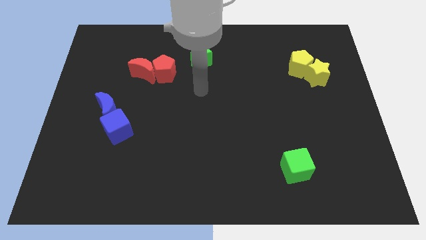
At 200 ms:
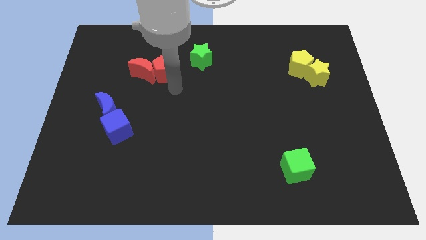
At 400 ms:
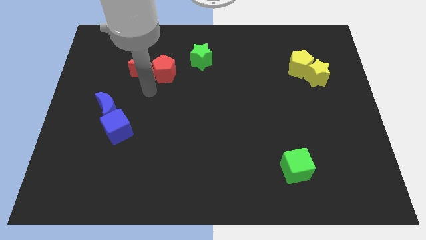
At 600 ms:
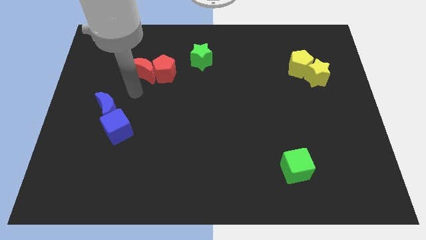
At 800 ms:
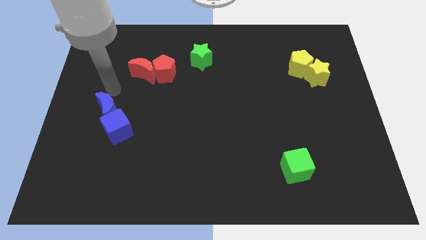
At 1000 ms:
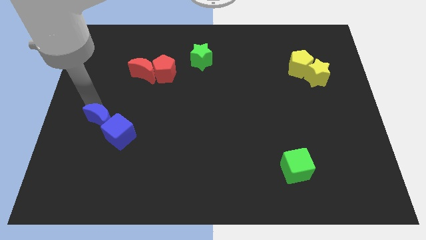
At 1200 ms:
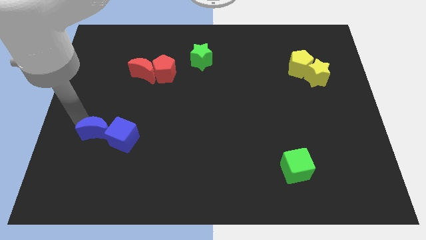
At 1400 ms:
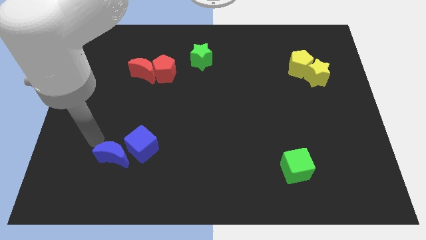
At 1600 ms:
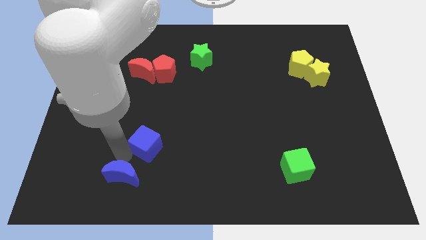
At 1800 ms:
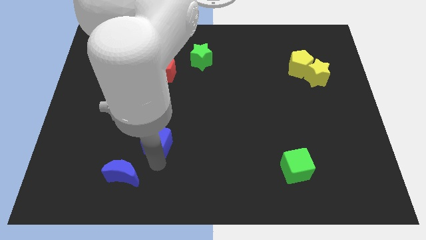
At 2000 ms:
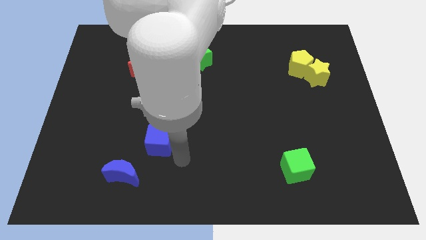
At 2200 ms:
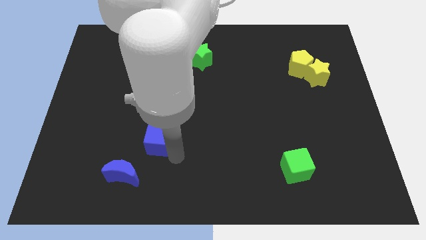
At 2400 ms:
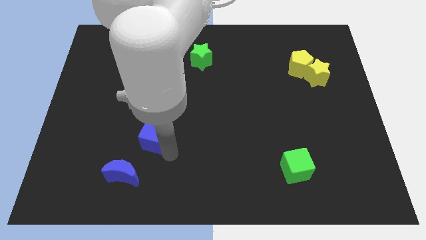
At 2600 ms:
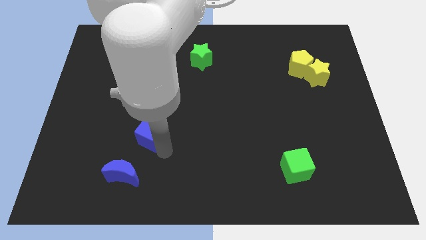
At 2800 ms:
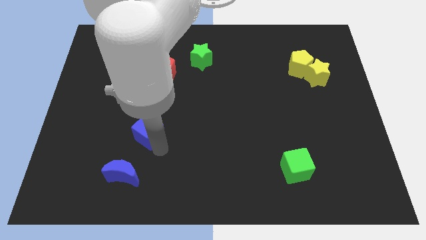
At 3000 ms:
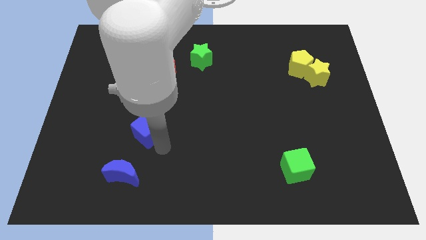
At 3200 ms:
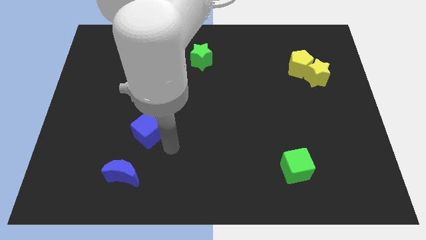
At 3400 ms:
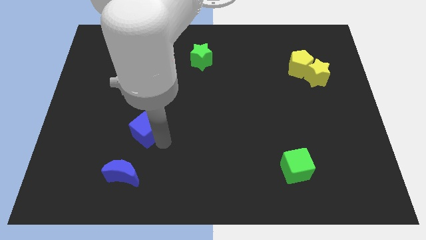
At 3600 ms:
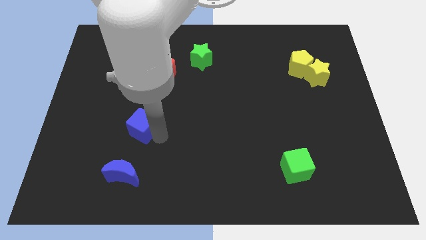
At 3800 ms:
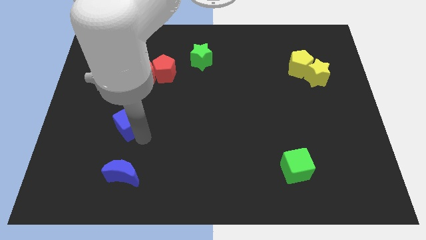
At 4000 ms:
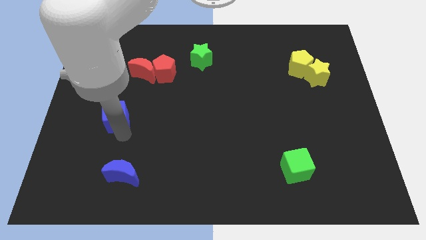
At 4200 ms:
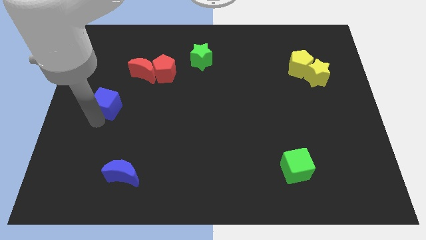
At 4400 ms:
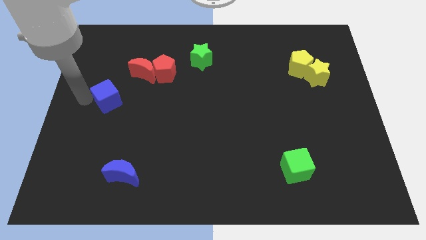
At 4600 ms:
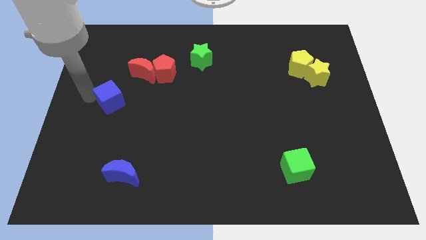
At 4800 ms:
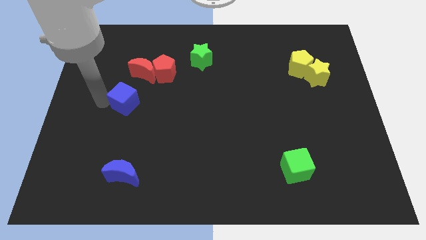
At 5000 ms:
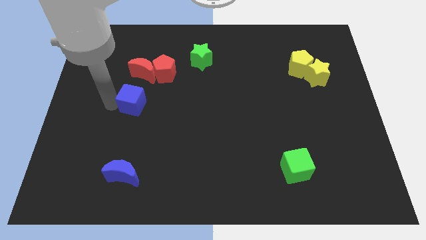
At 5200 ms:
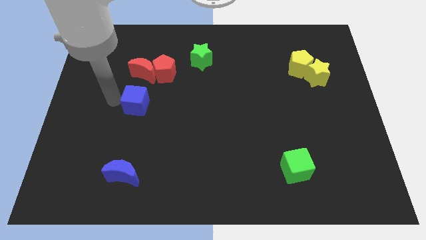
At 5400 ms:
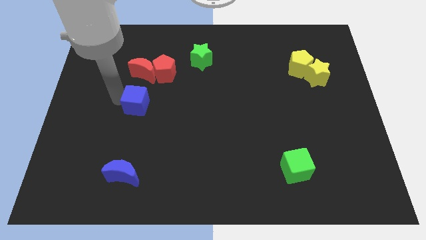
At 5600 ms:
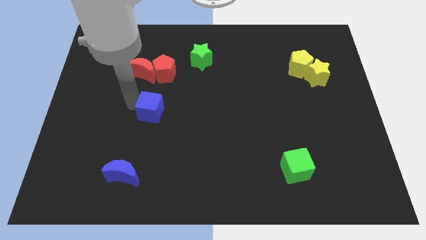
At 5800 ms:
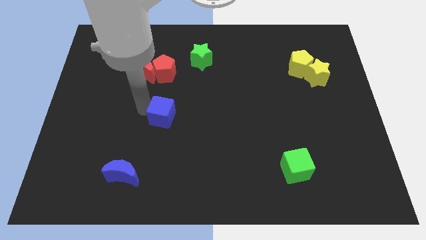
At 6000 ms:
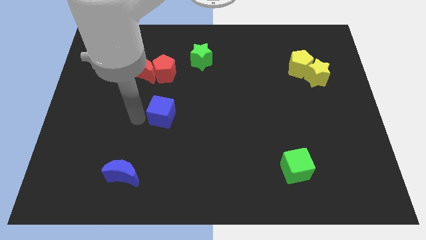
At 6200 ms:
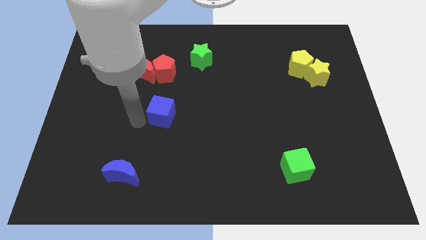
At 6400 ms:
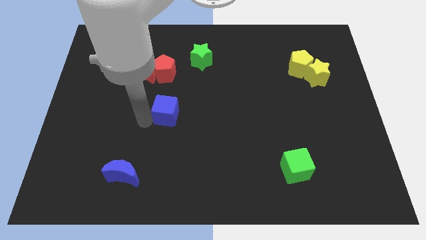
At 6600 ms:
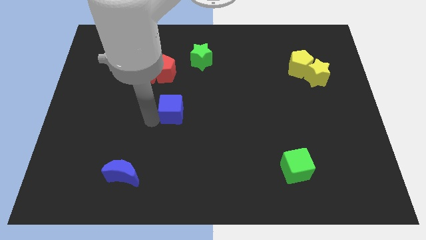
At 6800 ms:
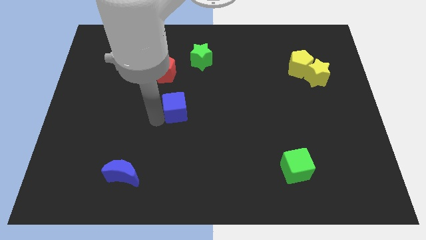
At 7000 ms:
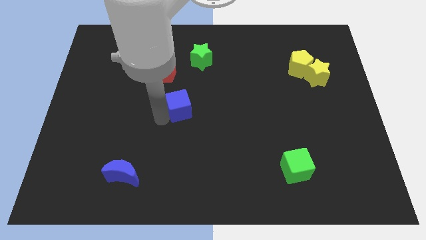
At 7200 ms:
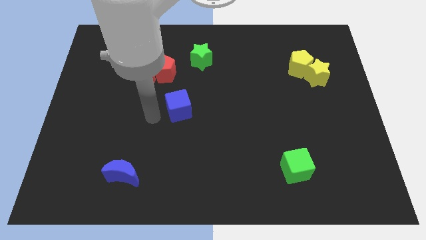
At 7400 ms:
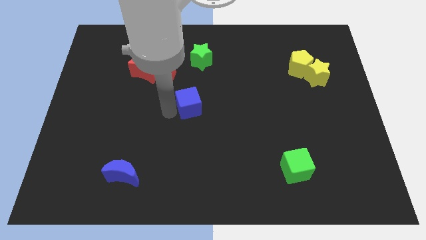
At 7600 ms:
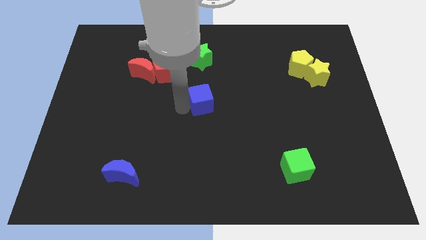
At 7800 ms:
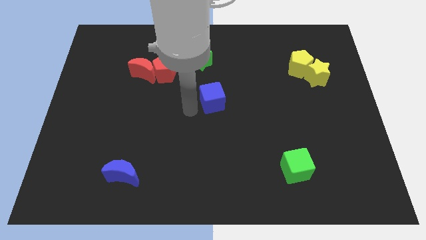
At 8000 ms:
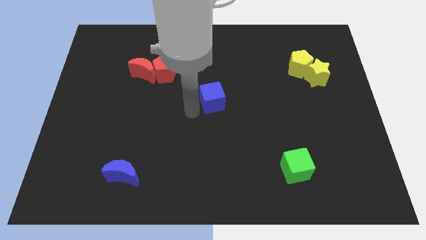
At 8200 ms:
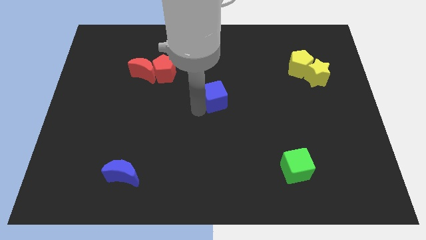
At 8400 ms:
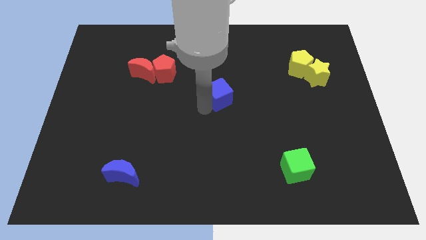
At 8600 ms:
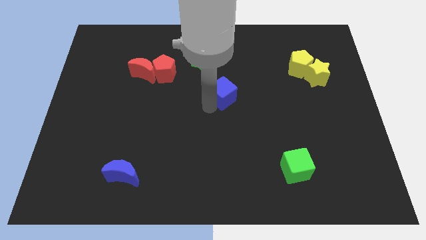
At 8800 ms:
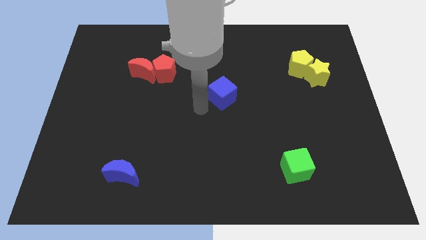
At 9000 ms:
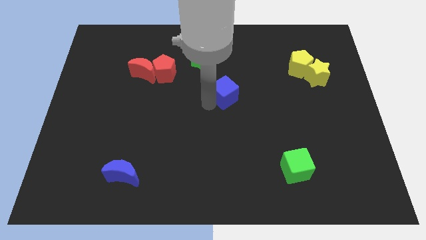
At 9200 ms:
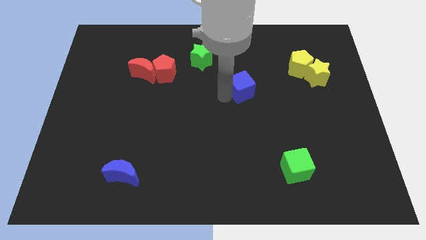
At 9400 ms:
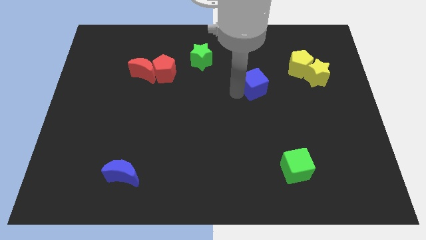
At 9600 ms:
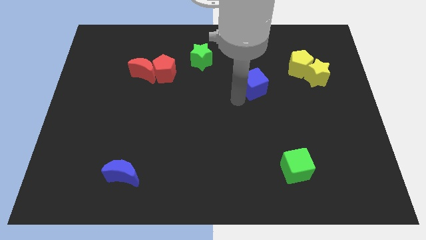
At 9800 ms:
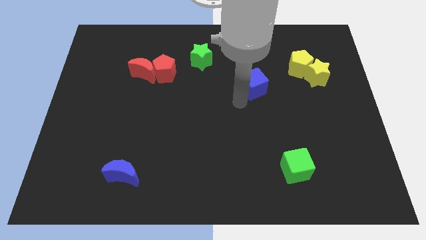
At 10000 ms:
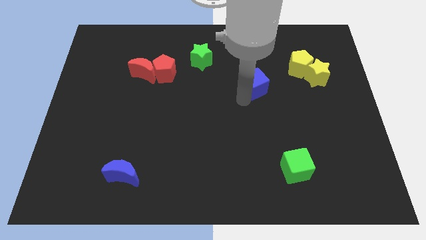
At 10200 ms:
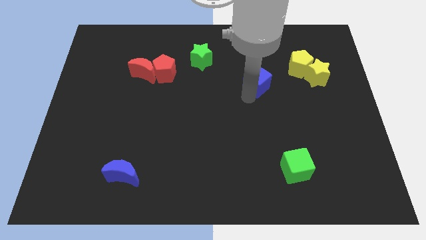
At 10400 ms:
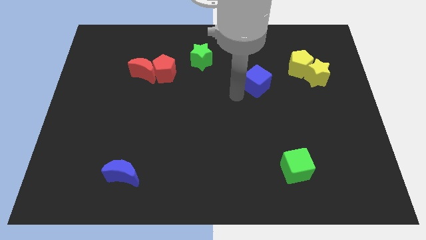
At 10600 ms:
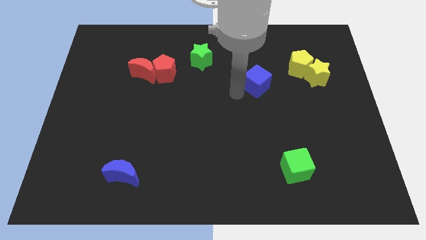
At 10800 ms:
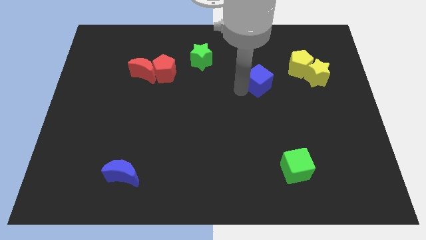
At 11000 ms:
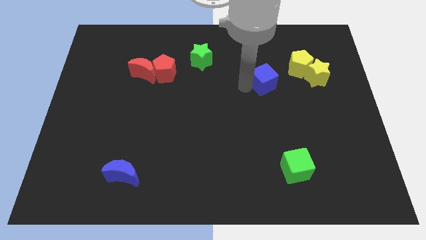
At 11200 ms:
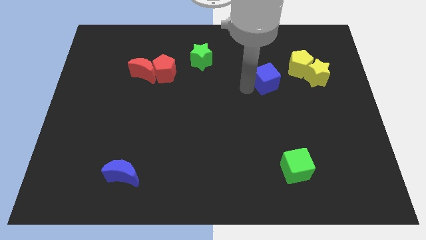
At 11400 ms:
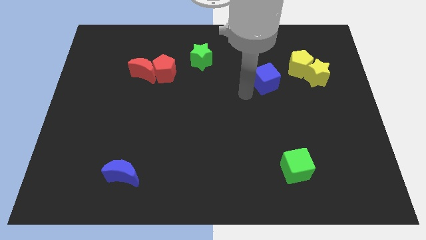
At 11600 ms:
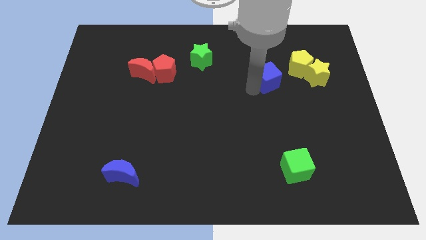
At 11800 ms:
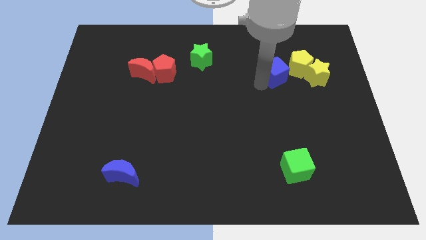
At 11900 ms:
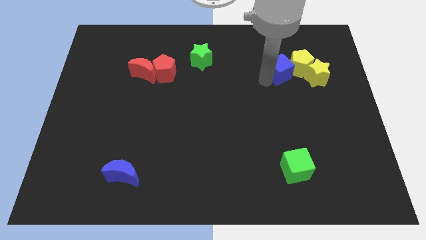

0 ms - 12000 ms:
push the blue cube to the yellow pentagon

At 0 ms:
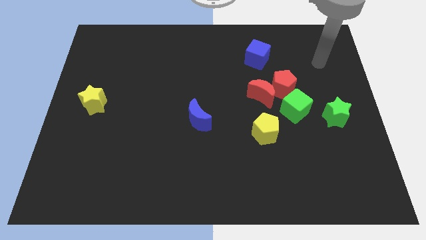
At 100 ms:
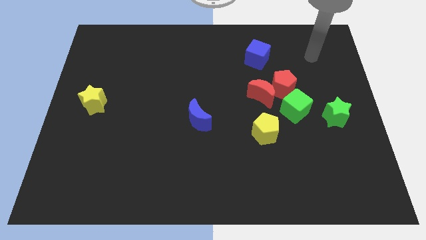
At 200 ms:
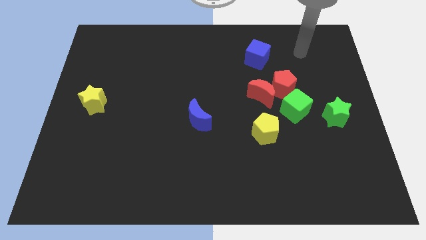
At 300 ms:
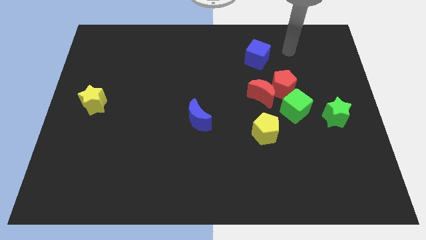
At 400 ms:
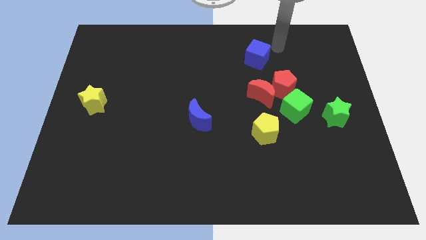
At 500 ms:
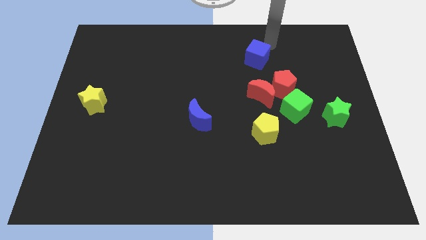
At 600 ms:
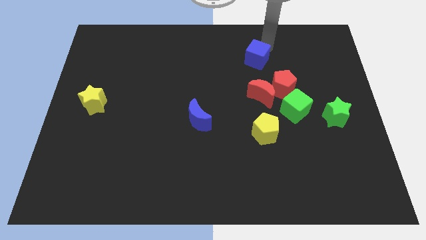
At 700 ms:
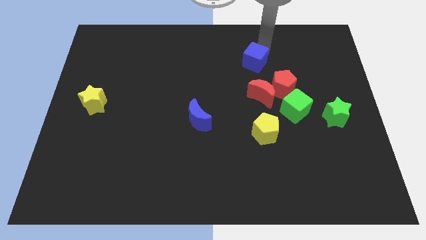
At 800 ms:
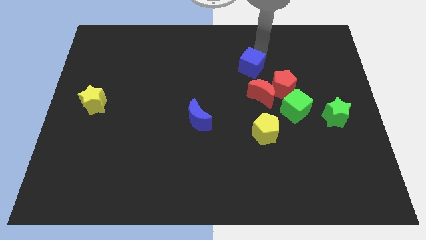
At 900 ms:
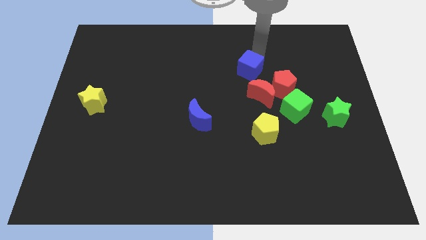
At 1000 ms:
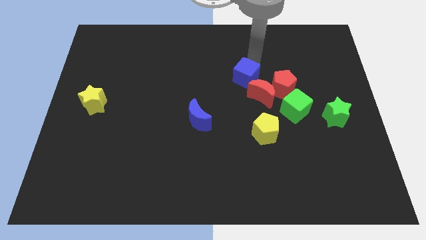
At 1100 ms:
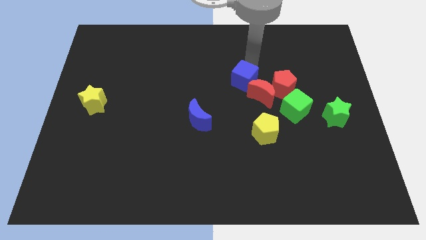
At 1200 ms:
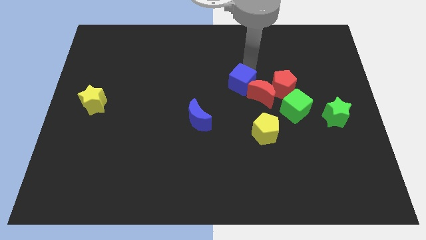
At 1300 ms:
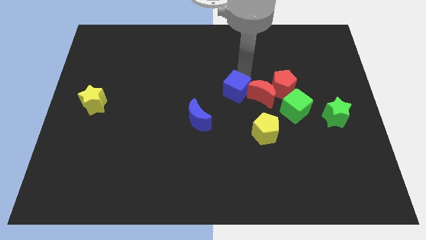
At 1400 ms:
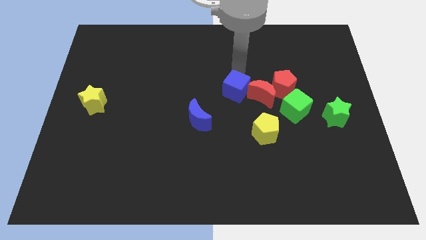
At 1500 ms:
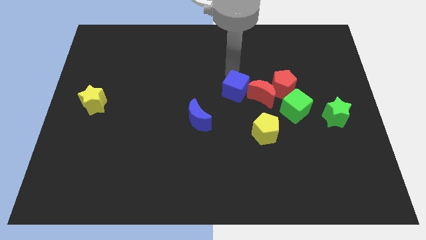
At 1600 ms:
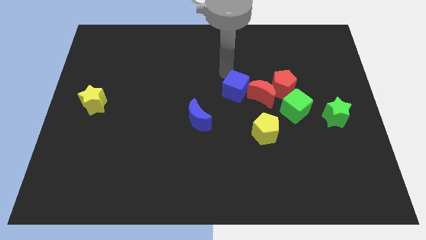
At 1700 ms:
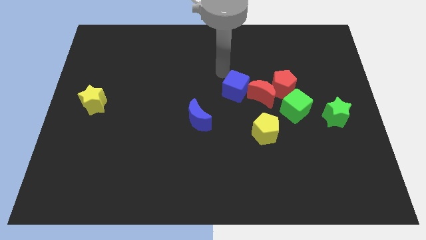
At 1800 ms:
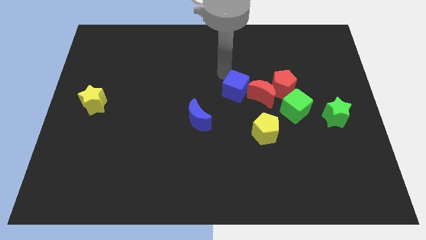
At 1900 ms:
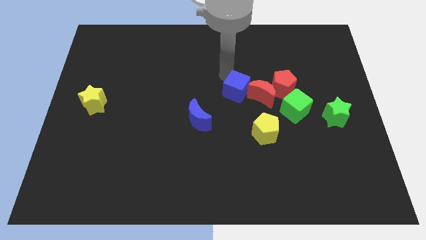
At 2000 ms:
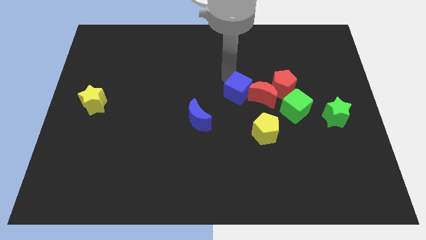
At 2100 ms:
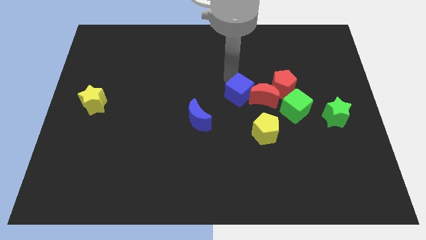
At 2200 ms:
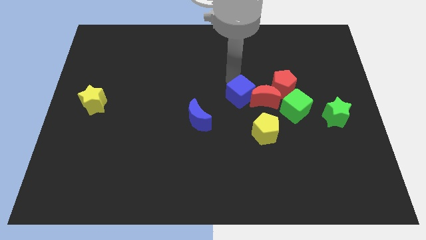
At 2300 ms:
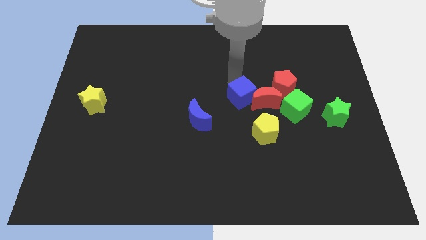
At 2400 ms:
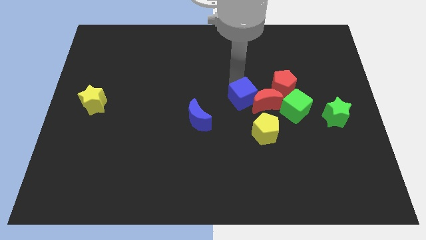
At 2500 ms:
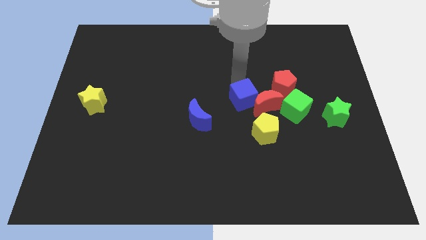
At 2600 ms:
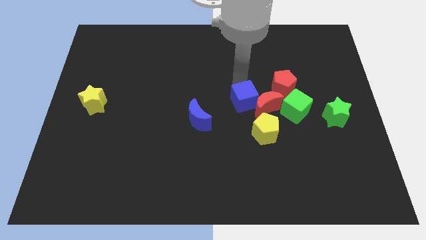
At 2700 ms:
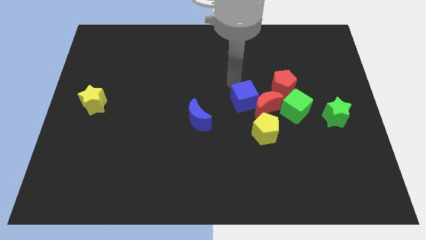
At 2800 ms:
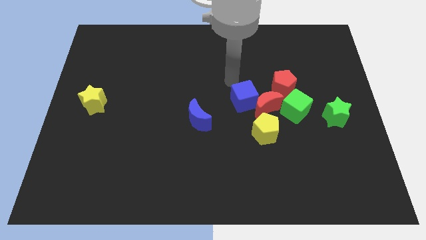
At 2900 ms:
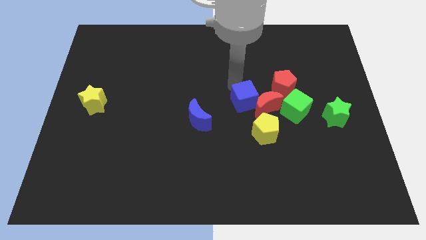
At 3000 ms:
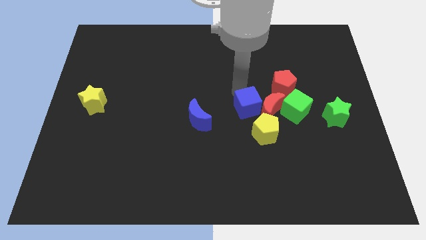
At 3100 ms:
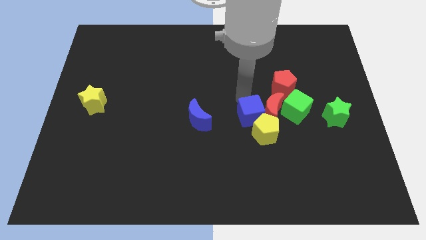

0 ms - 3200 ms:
move the blue cube close to the yellow pentagon
